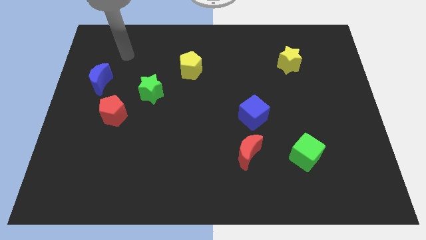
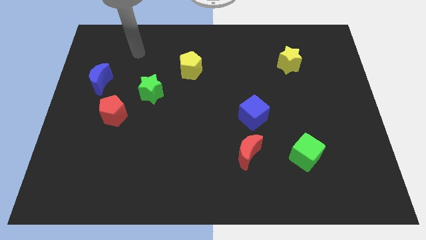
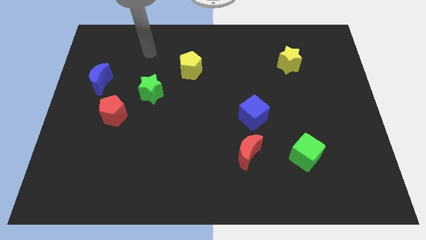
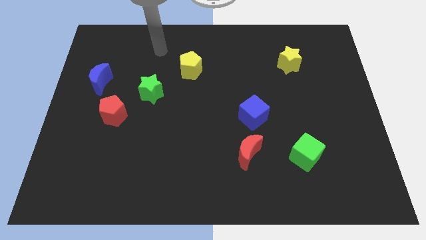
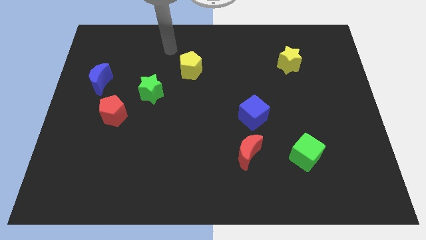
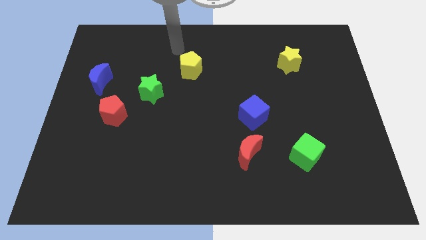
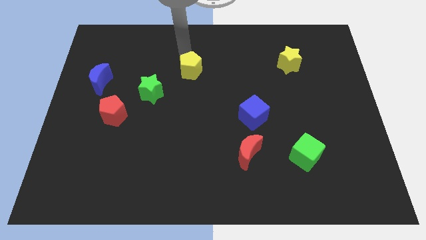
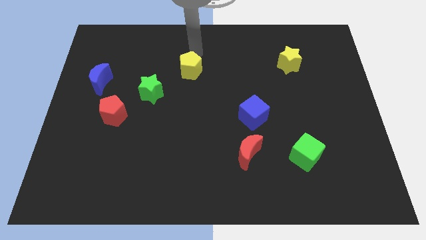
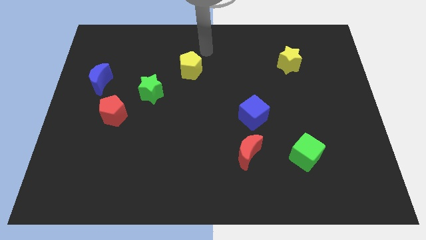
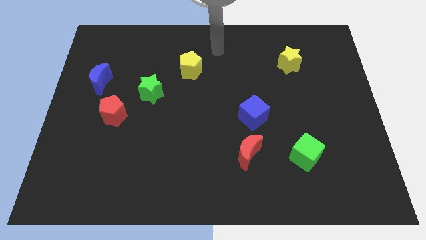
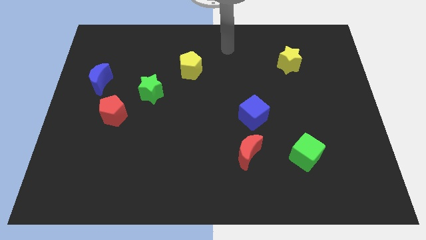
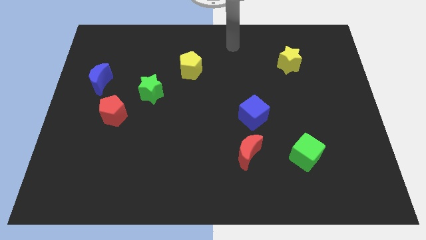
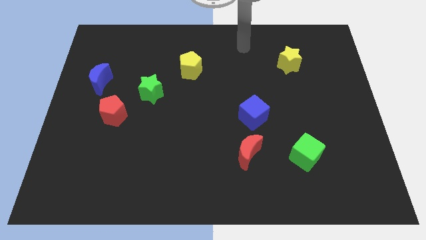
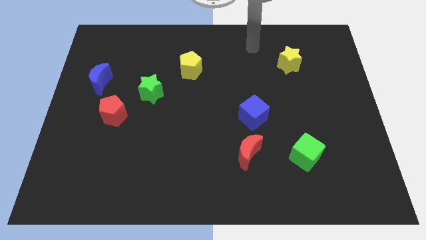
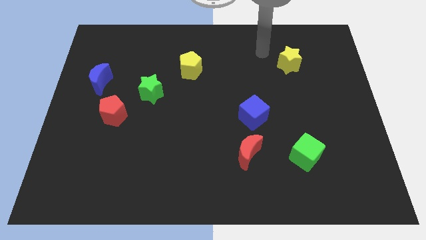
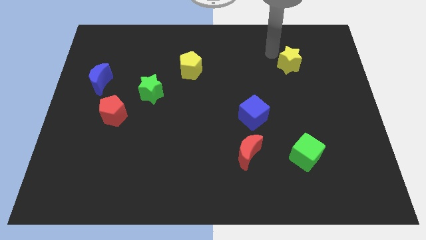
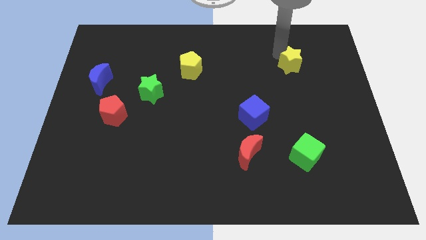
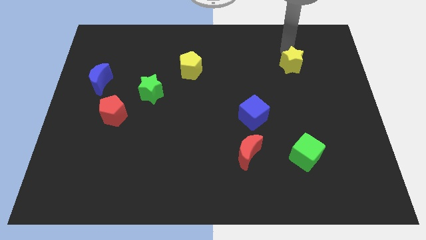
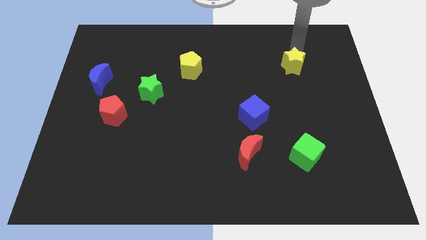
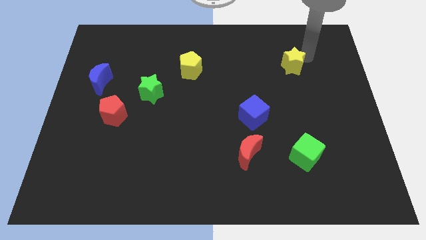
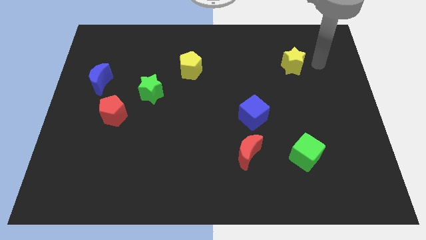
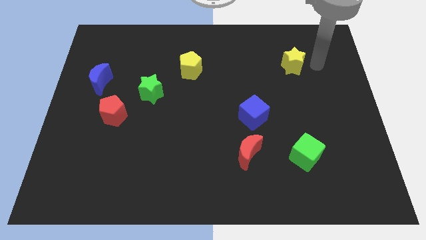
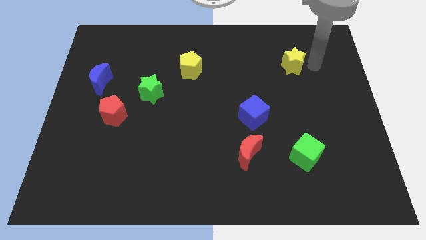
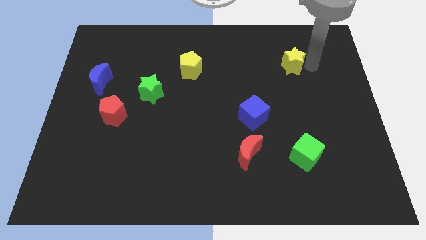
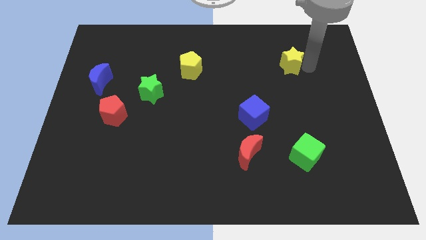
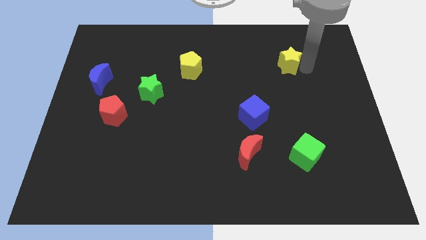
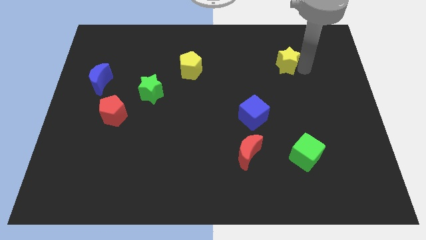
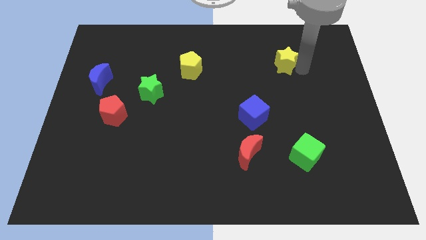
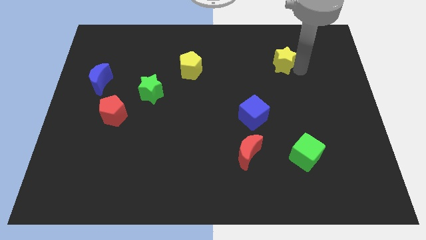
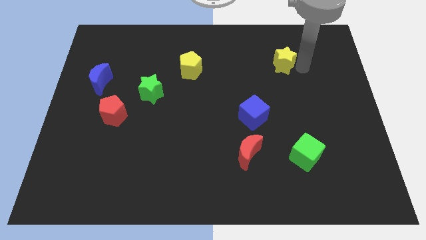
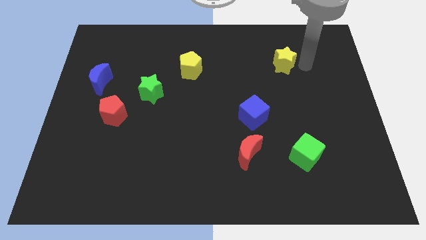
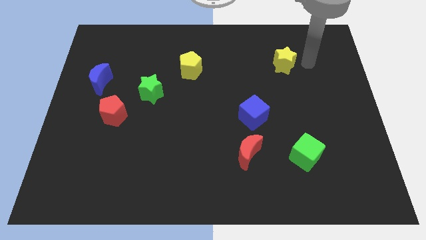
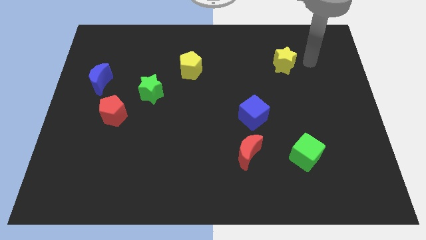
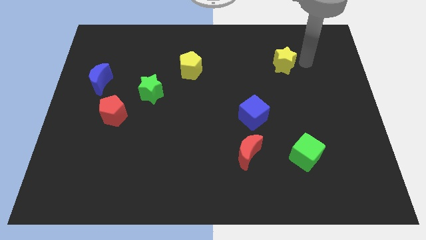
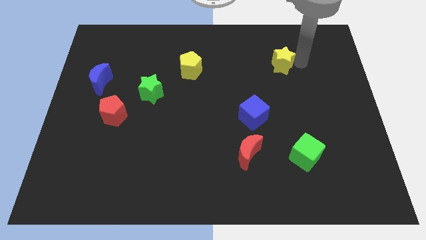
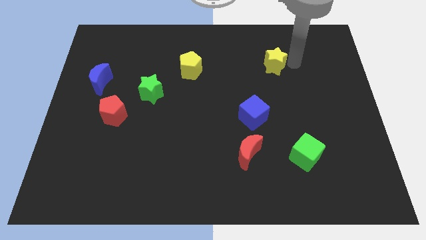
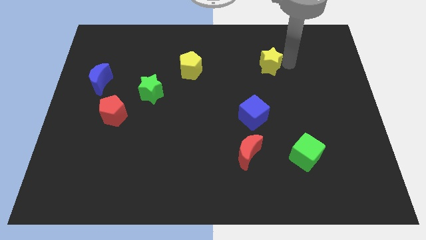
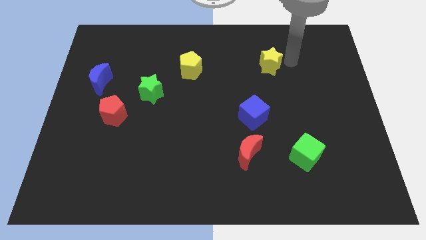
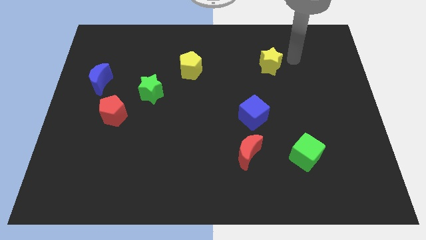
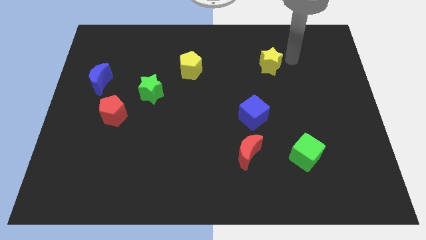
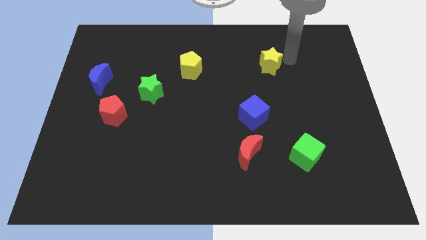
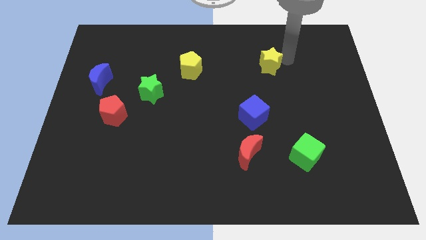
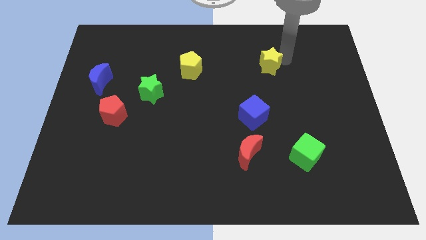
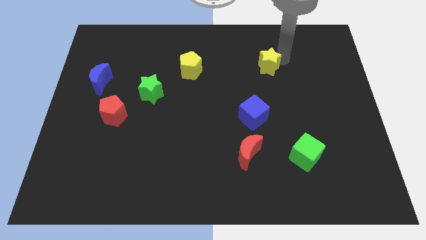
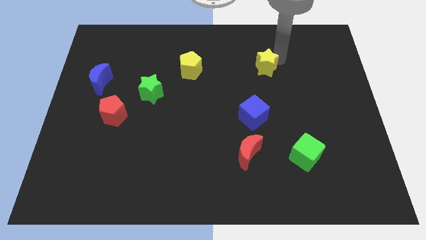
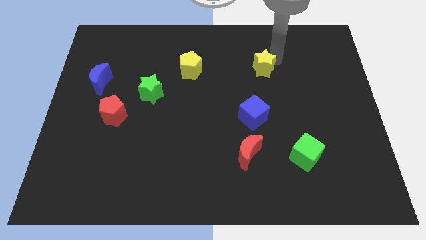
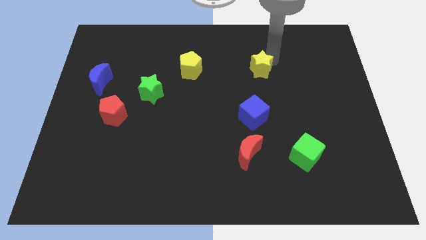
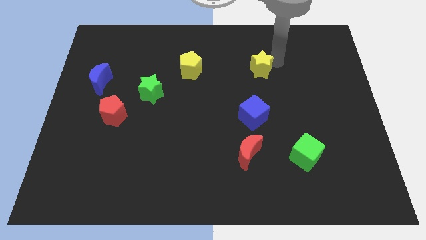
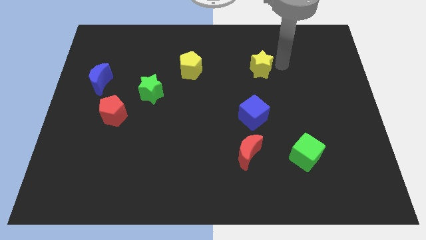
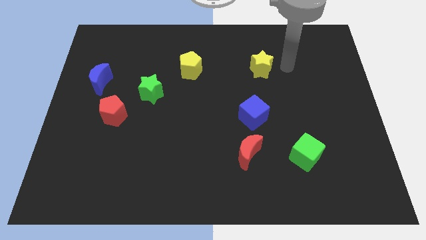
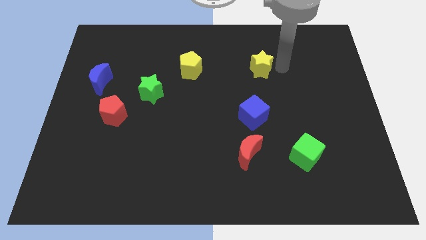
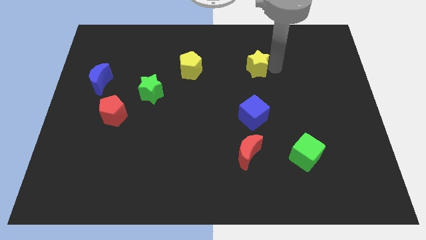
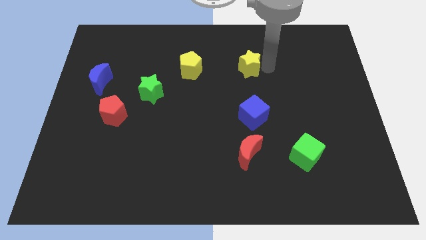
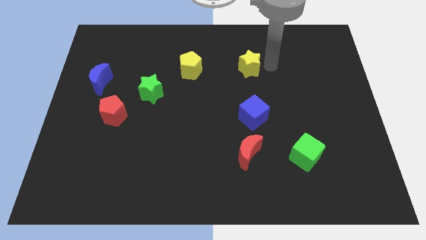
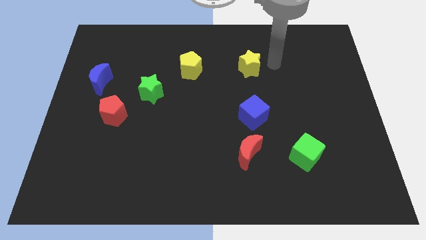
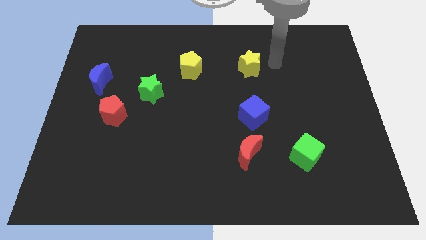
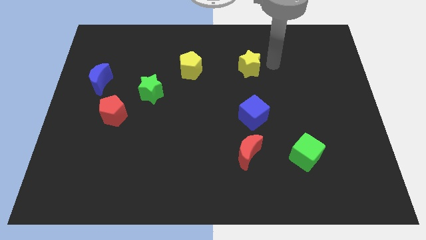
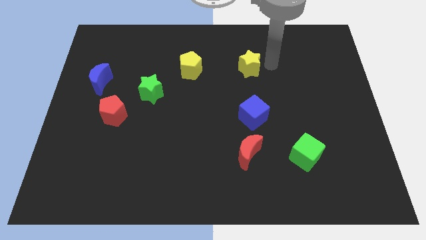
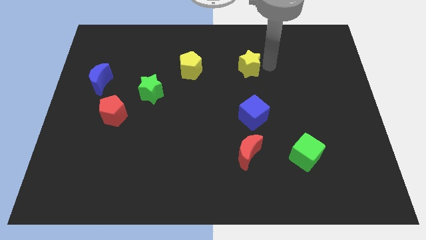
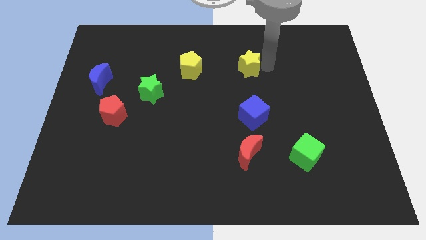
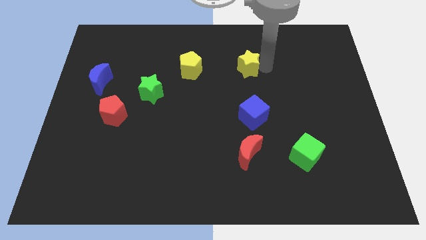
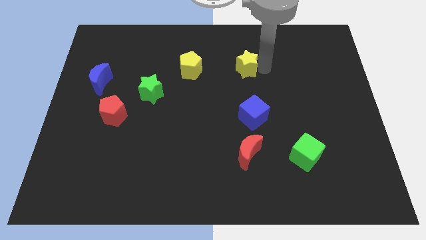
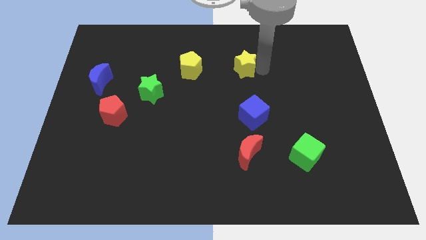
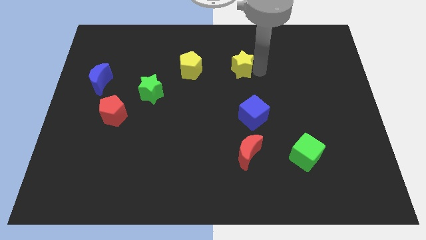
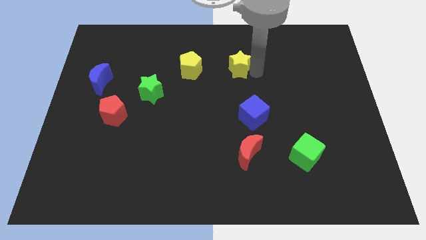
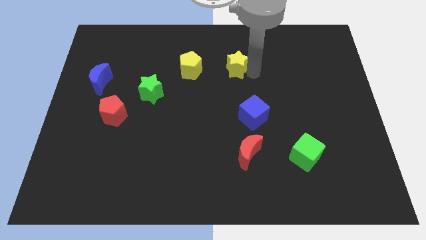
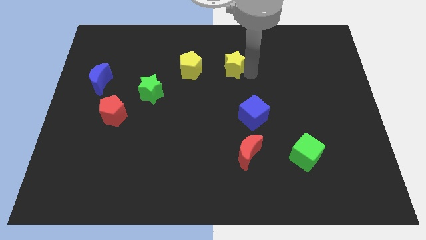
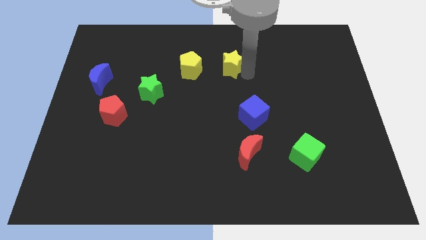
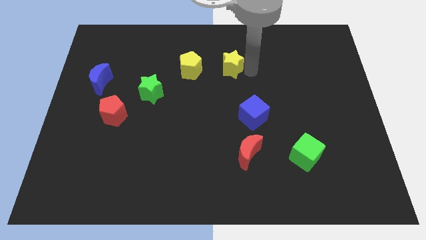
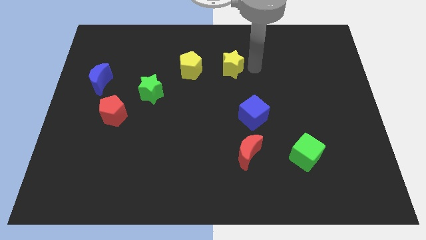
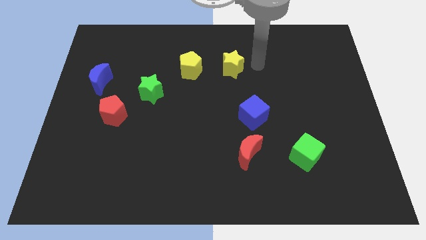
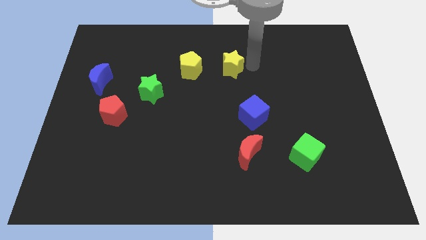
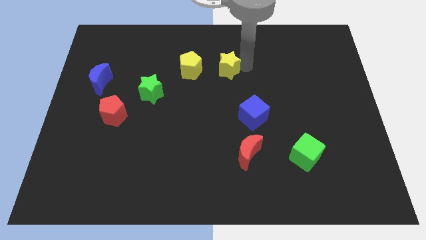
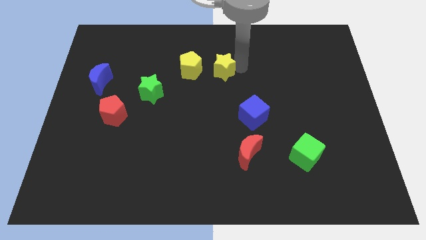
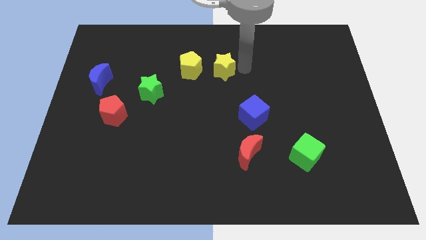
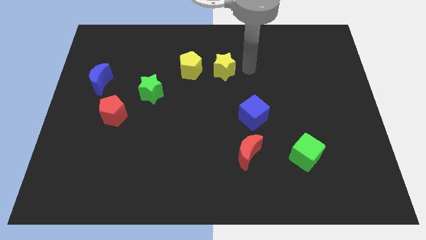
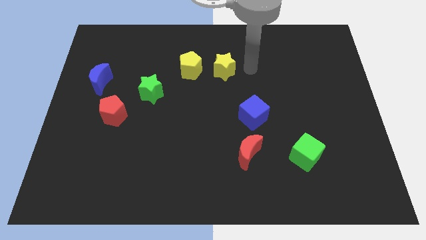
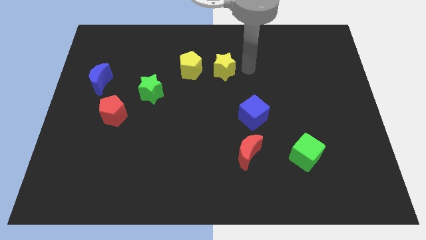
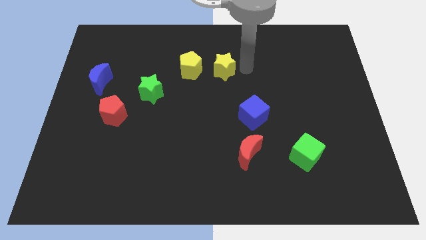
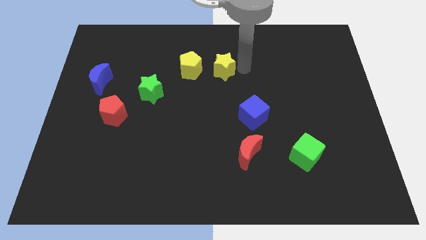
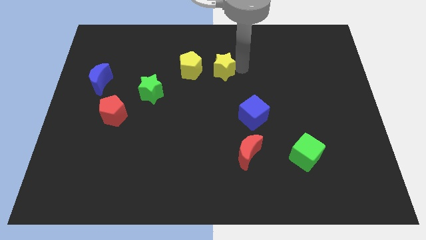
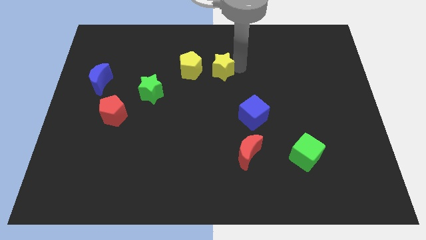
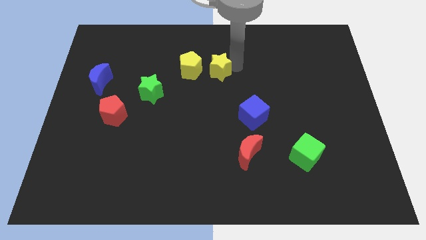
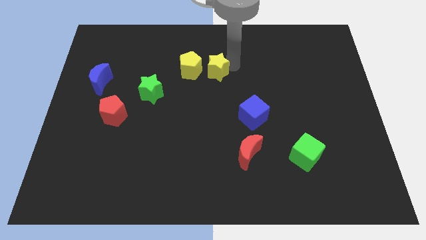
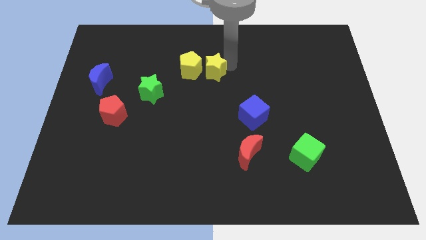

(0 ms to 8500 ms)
put the yellow star next to the yellow pentagon
